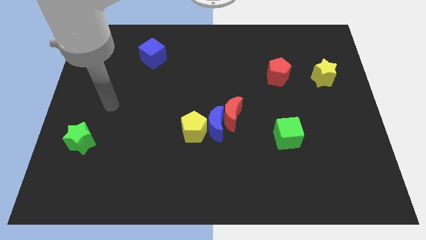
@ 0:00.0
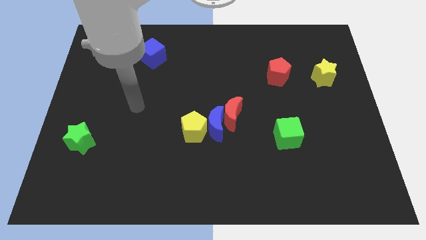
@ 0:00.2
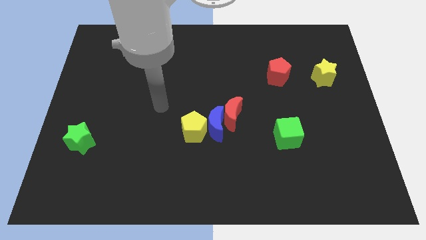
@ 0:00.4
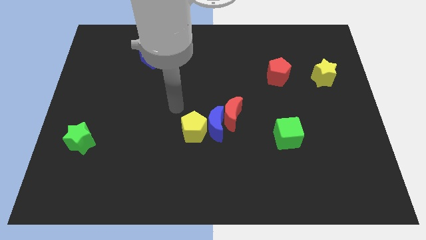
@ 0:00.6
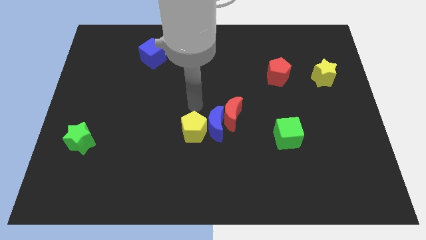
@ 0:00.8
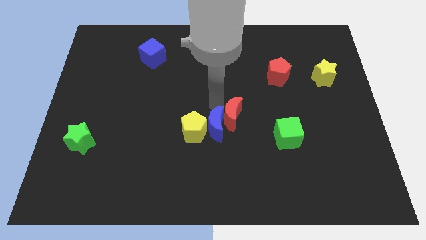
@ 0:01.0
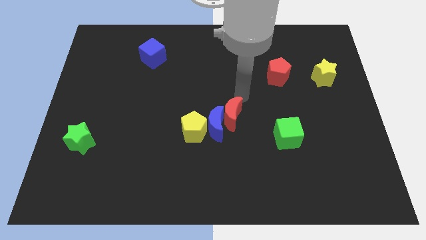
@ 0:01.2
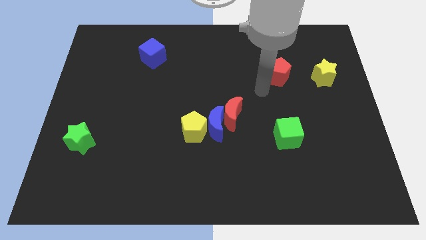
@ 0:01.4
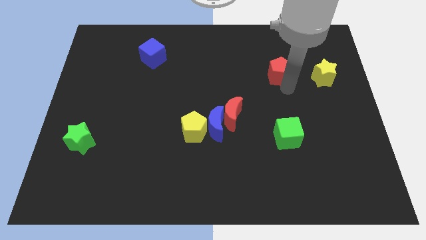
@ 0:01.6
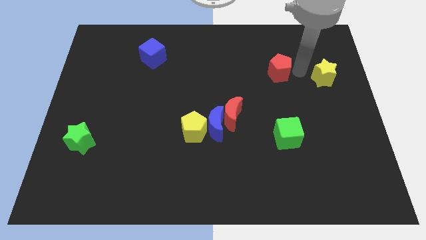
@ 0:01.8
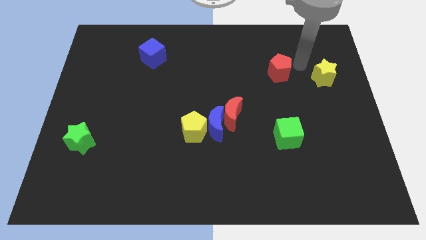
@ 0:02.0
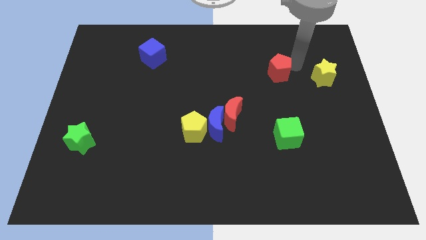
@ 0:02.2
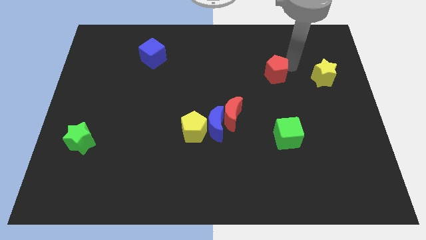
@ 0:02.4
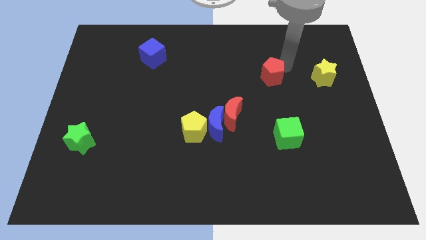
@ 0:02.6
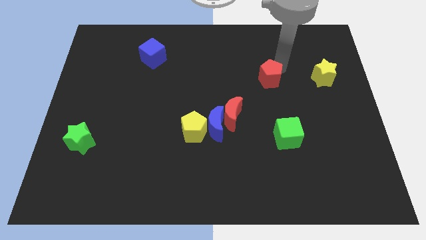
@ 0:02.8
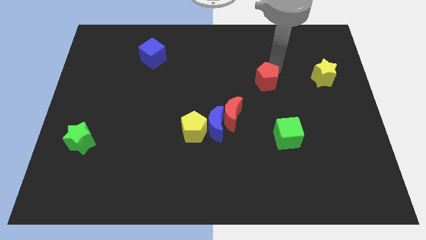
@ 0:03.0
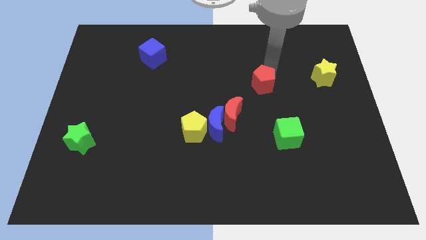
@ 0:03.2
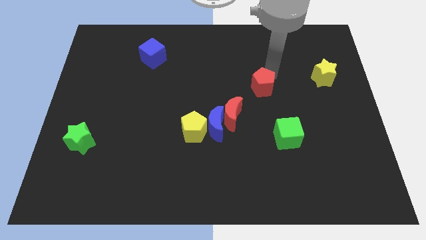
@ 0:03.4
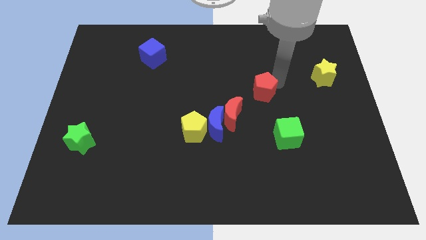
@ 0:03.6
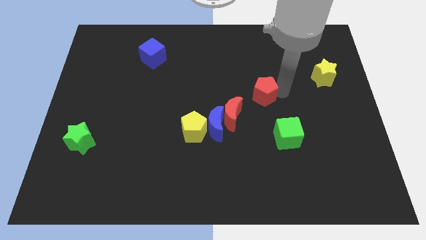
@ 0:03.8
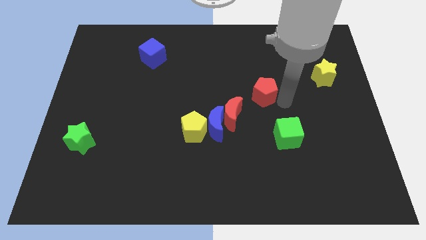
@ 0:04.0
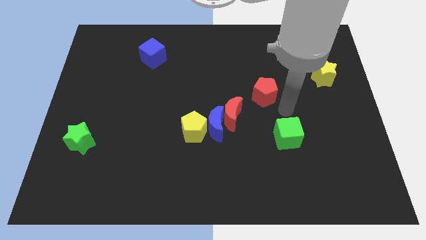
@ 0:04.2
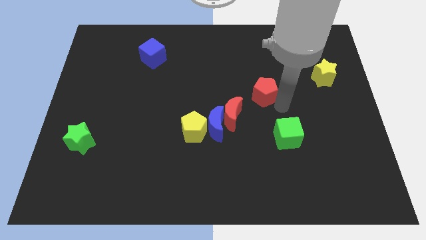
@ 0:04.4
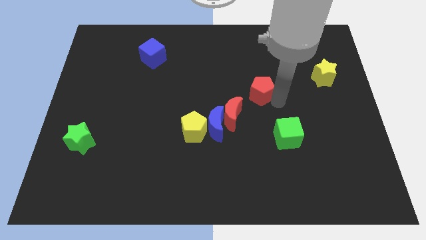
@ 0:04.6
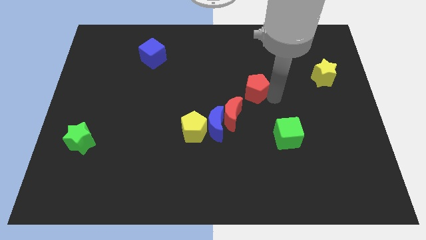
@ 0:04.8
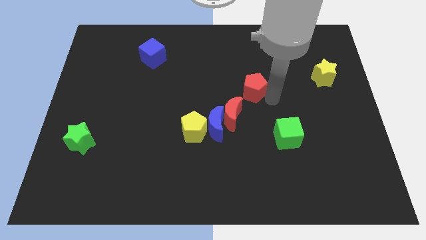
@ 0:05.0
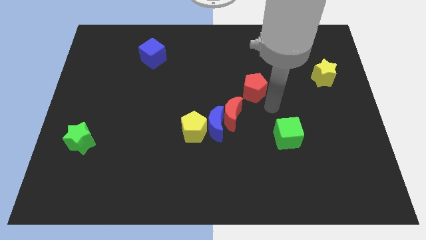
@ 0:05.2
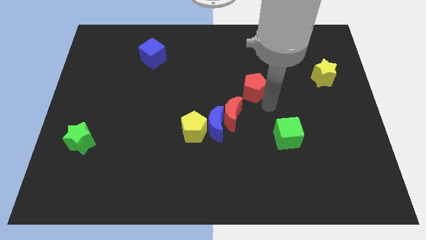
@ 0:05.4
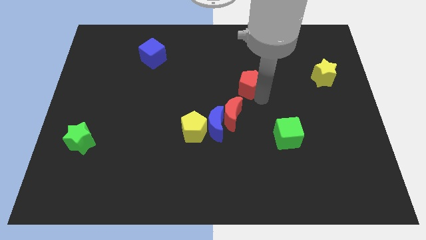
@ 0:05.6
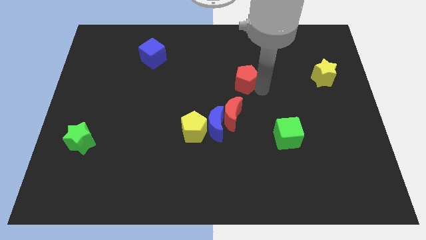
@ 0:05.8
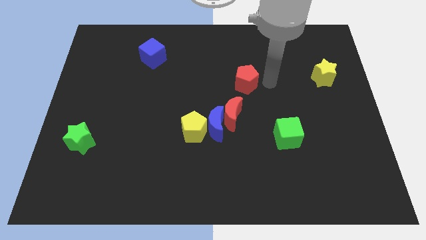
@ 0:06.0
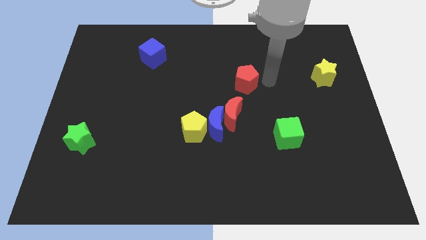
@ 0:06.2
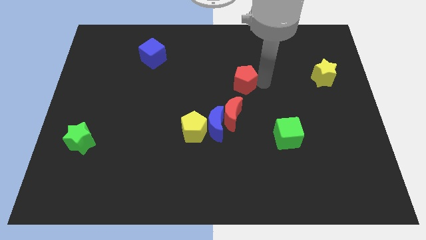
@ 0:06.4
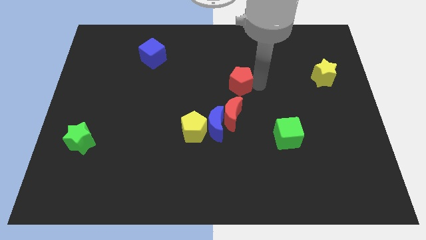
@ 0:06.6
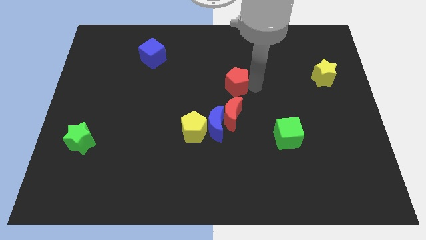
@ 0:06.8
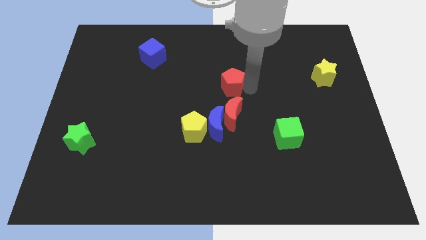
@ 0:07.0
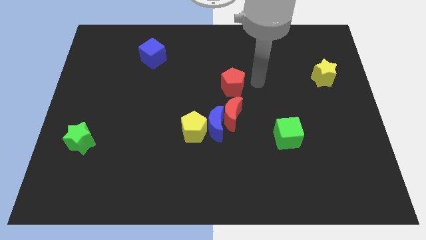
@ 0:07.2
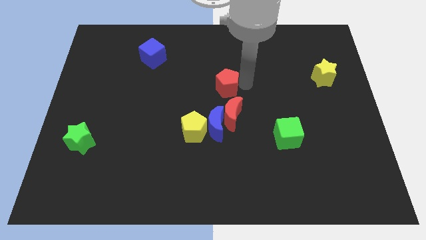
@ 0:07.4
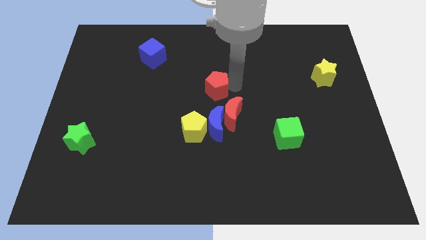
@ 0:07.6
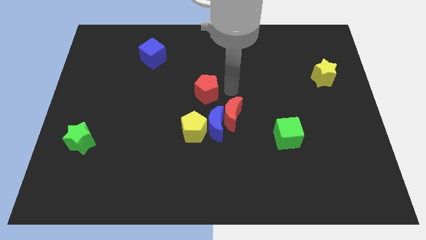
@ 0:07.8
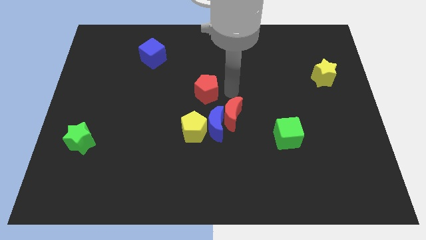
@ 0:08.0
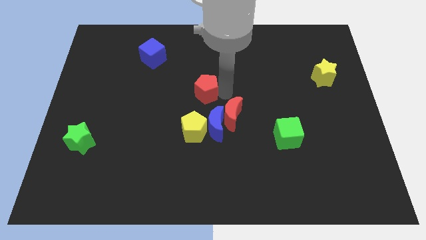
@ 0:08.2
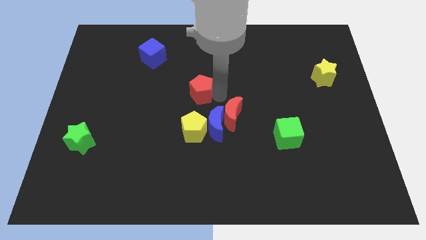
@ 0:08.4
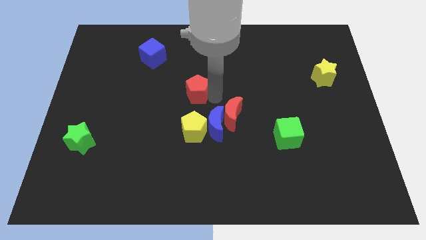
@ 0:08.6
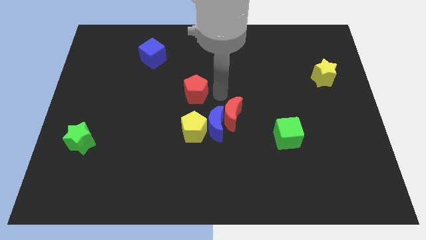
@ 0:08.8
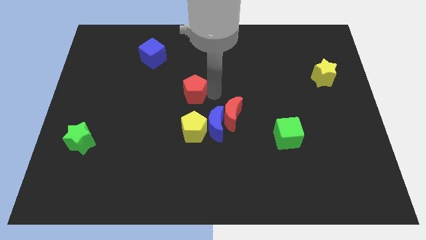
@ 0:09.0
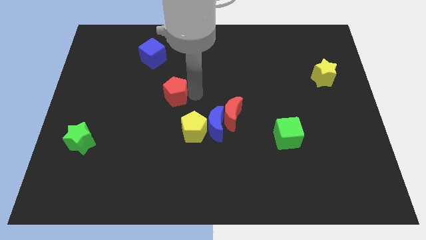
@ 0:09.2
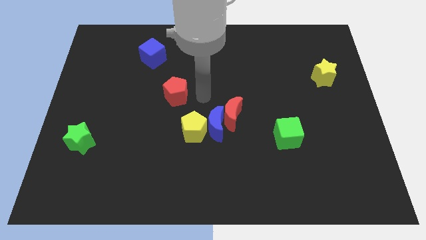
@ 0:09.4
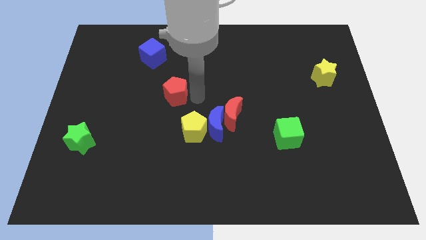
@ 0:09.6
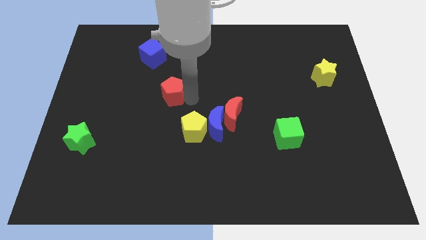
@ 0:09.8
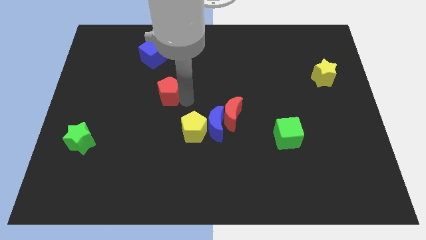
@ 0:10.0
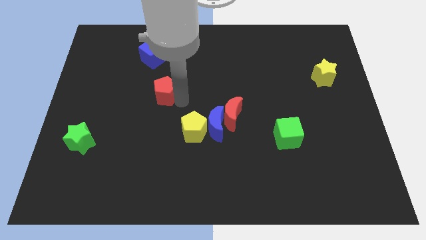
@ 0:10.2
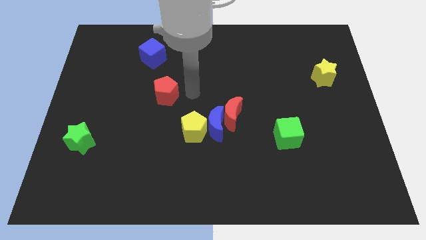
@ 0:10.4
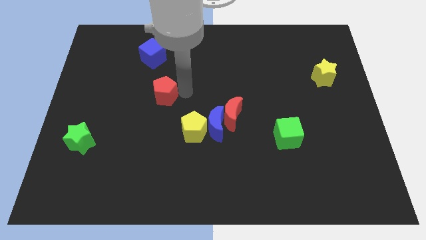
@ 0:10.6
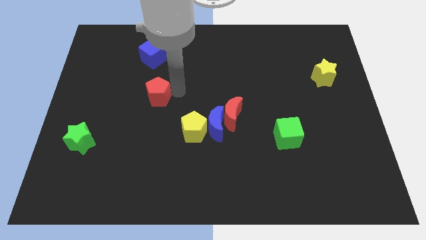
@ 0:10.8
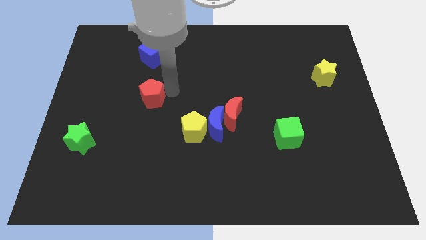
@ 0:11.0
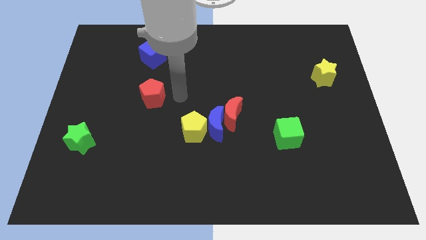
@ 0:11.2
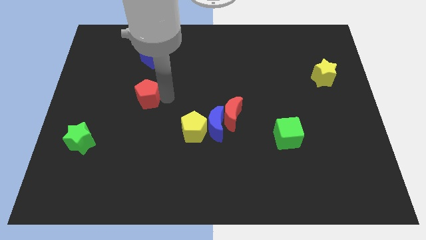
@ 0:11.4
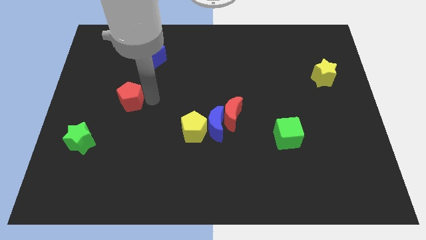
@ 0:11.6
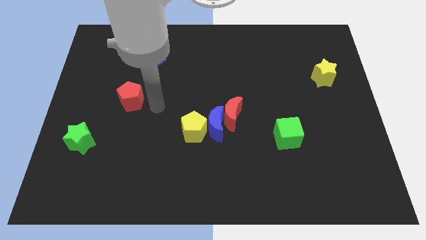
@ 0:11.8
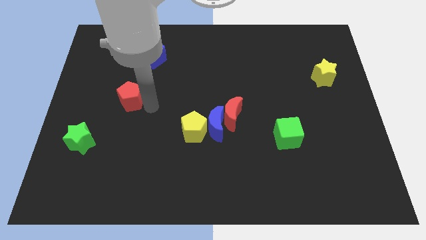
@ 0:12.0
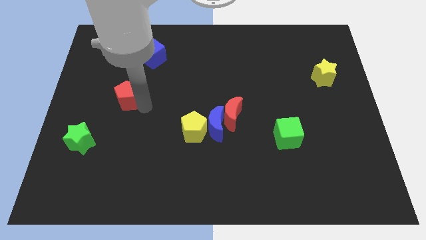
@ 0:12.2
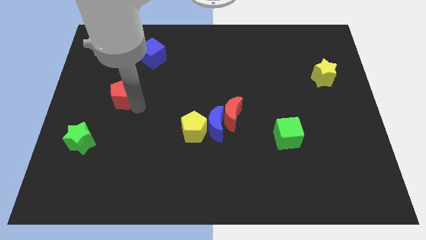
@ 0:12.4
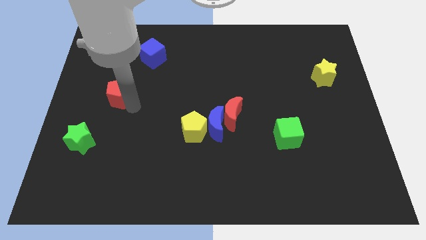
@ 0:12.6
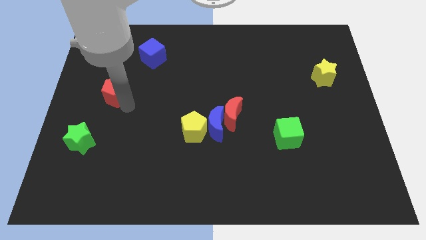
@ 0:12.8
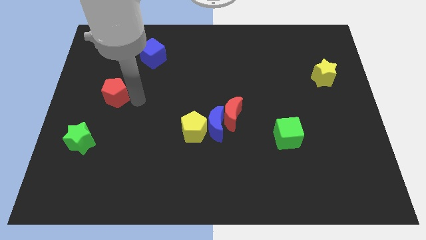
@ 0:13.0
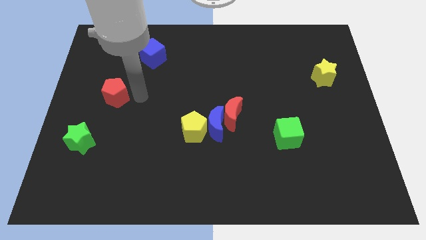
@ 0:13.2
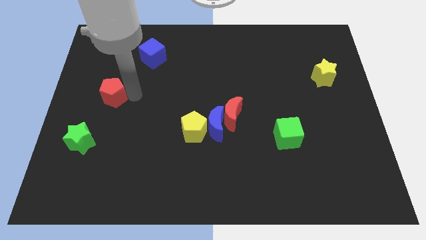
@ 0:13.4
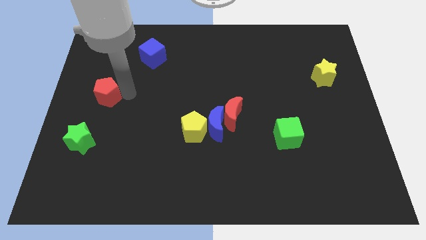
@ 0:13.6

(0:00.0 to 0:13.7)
push the red pentagon to the left side of the board
